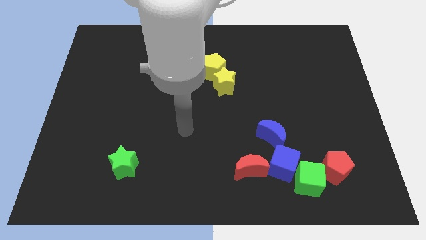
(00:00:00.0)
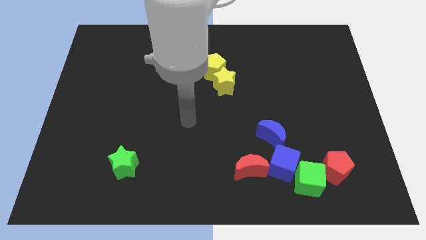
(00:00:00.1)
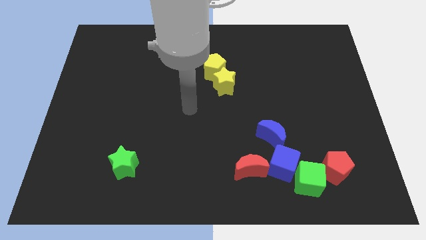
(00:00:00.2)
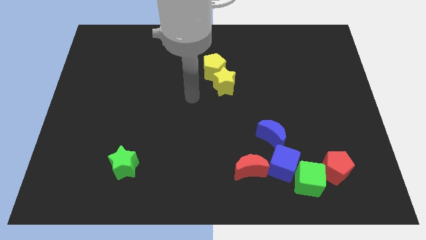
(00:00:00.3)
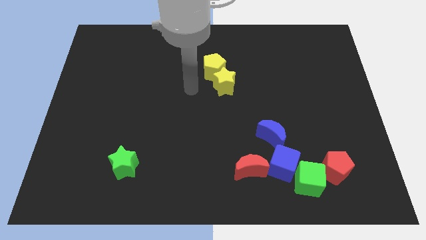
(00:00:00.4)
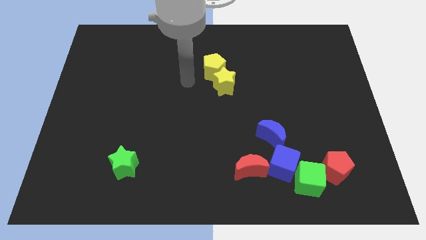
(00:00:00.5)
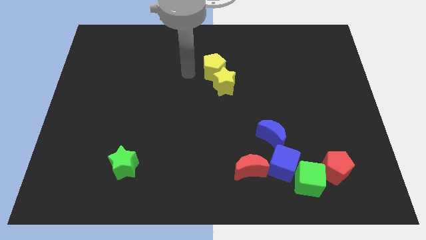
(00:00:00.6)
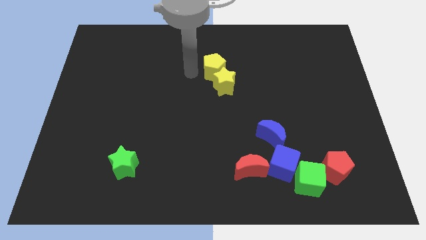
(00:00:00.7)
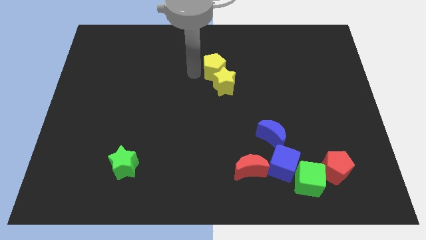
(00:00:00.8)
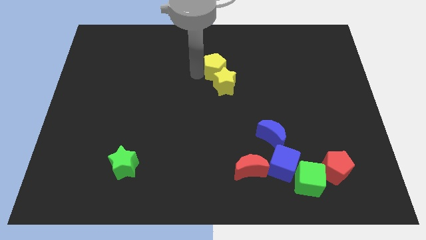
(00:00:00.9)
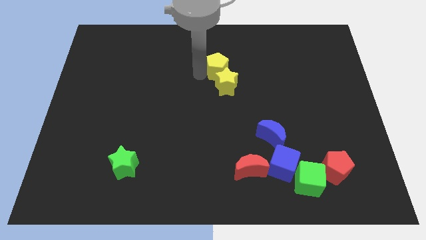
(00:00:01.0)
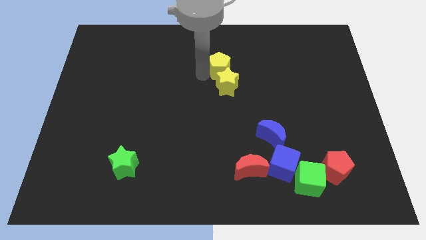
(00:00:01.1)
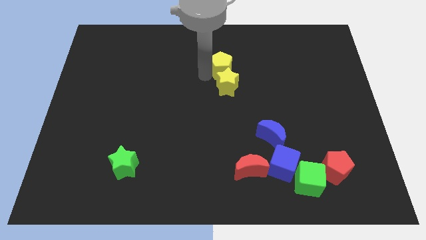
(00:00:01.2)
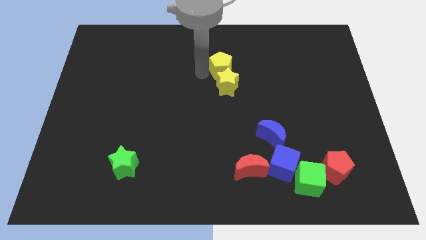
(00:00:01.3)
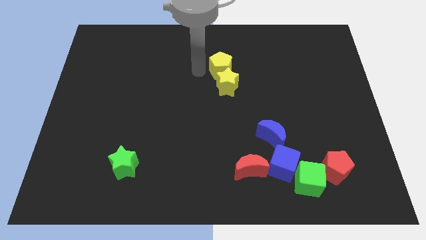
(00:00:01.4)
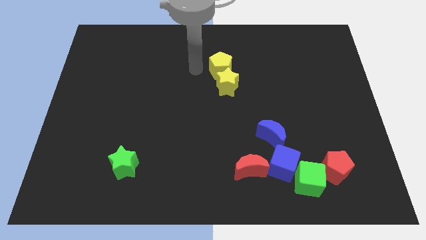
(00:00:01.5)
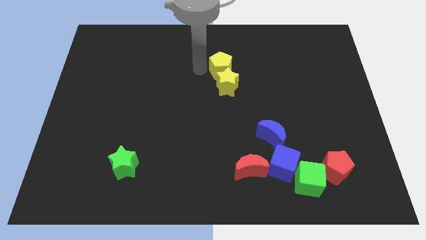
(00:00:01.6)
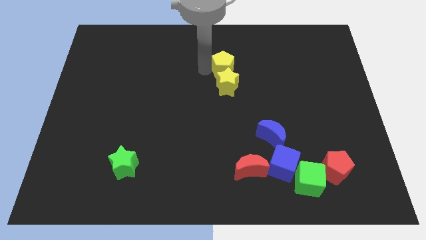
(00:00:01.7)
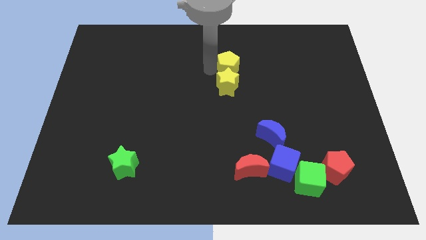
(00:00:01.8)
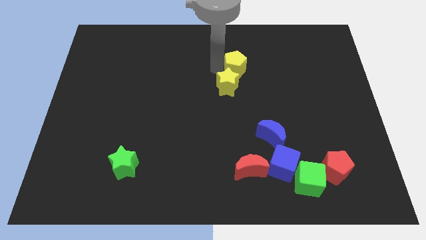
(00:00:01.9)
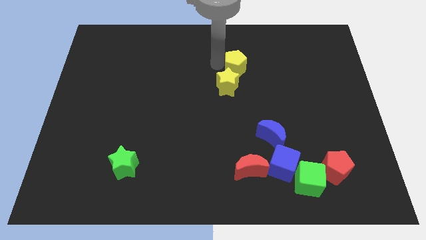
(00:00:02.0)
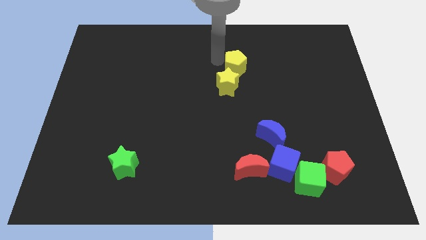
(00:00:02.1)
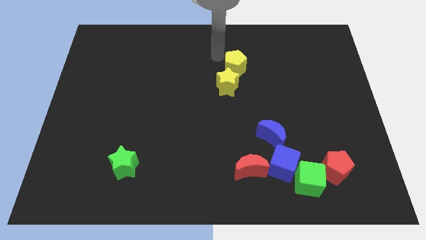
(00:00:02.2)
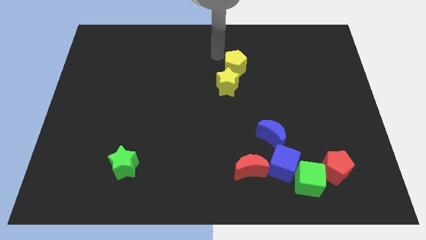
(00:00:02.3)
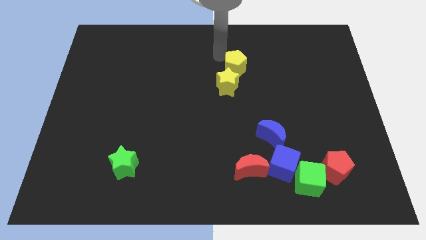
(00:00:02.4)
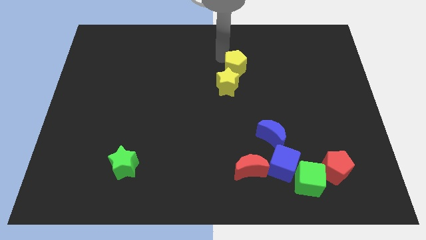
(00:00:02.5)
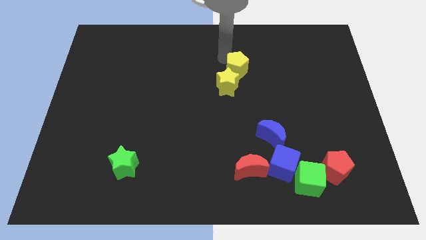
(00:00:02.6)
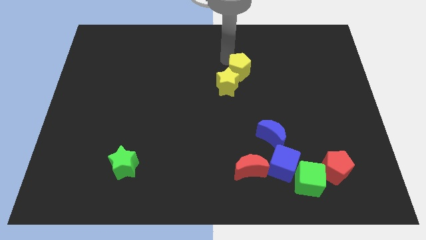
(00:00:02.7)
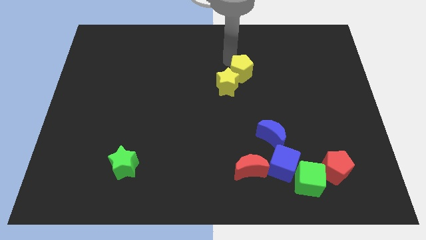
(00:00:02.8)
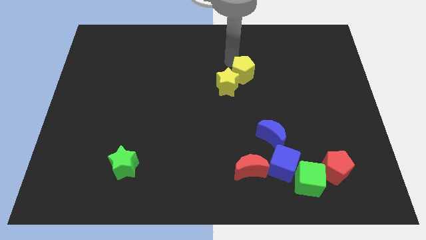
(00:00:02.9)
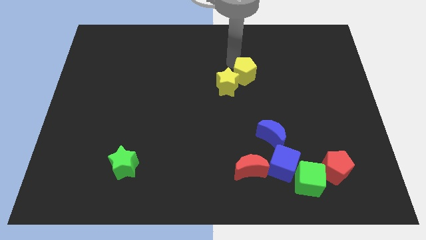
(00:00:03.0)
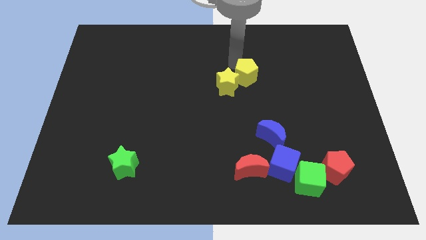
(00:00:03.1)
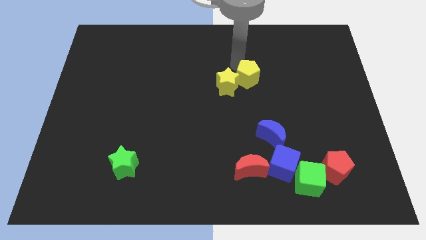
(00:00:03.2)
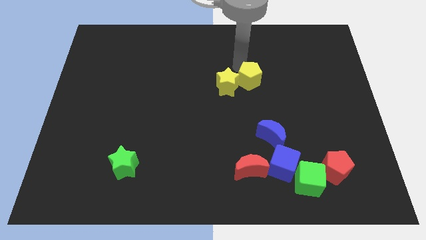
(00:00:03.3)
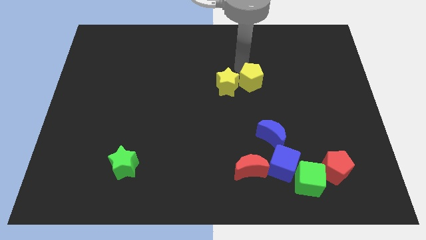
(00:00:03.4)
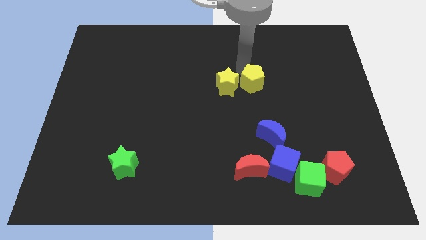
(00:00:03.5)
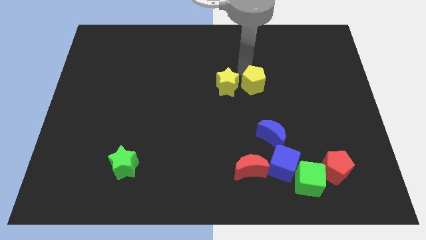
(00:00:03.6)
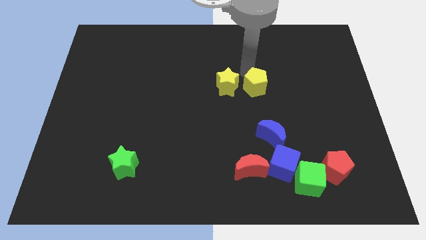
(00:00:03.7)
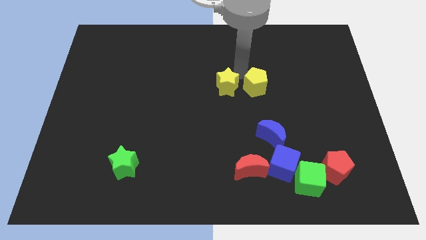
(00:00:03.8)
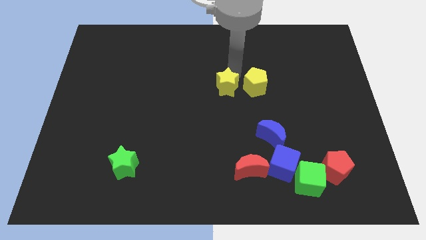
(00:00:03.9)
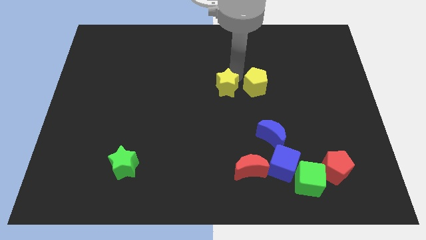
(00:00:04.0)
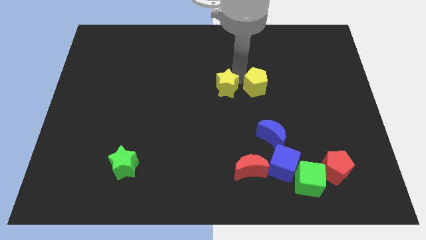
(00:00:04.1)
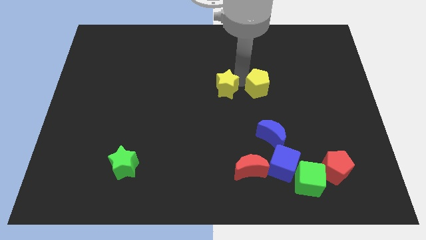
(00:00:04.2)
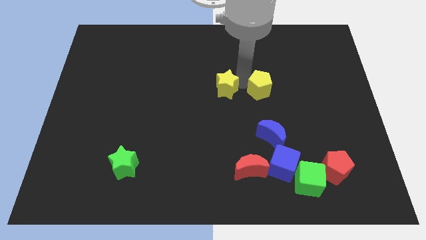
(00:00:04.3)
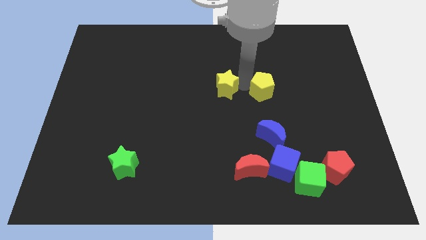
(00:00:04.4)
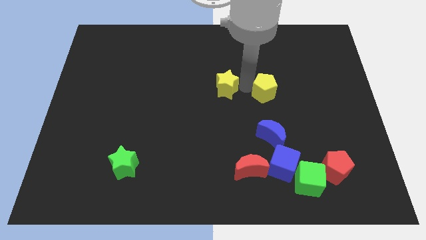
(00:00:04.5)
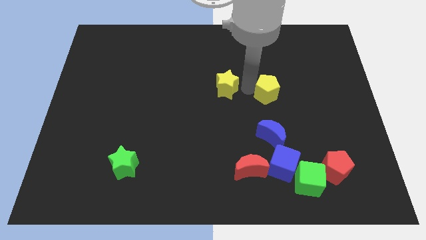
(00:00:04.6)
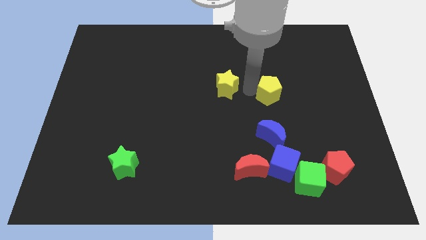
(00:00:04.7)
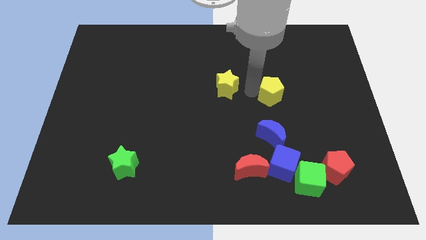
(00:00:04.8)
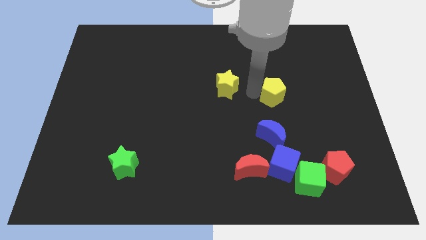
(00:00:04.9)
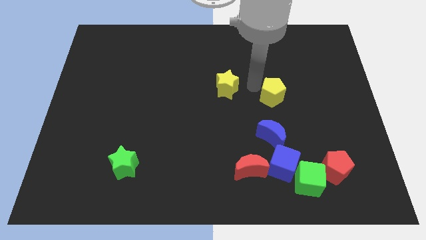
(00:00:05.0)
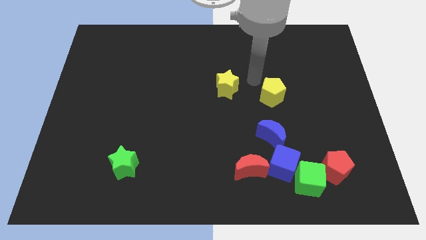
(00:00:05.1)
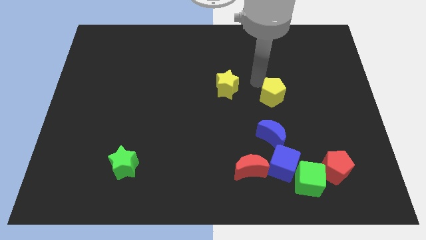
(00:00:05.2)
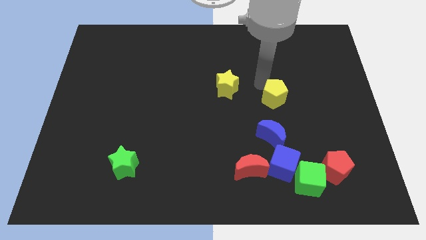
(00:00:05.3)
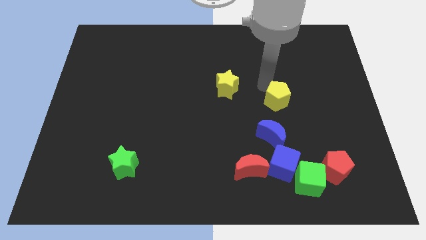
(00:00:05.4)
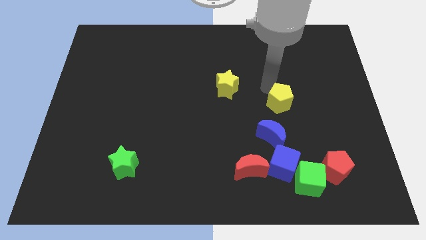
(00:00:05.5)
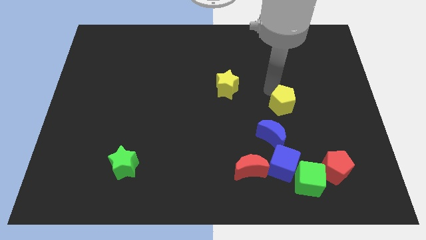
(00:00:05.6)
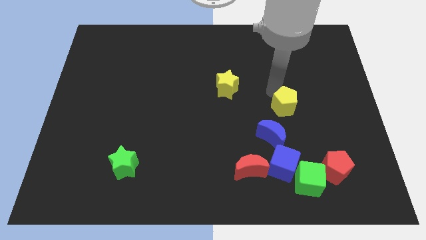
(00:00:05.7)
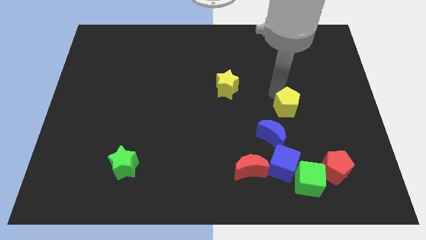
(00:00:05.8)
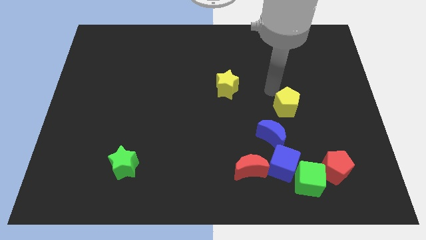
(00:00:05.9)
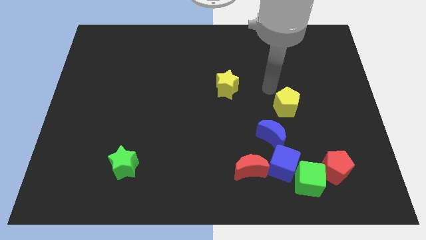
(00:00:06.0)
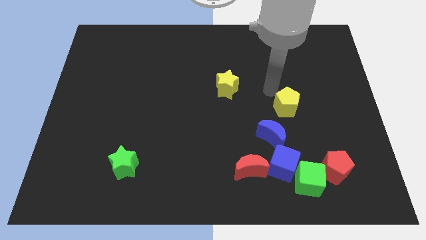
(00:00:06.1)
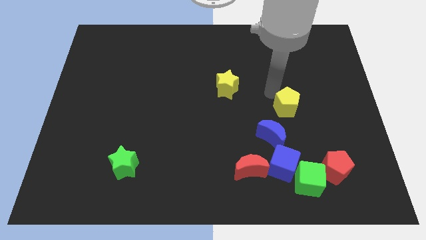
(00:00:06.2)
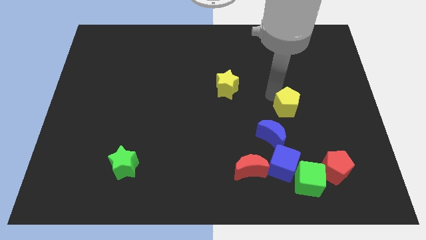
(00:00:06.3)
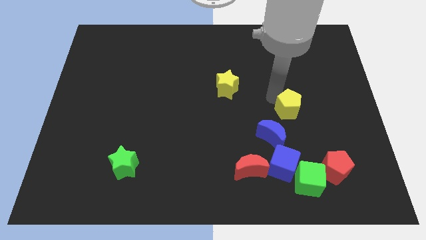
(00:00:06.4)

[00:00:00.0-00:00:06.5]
slide the yellow pentagon diagonally down and to the right

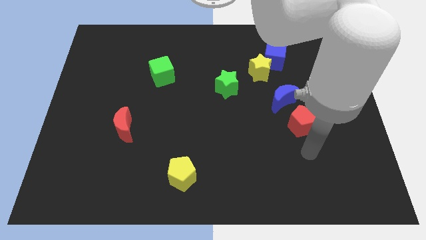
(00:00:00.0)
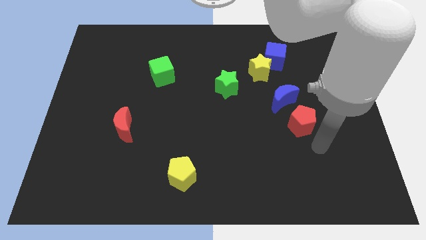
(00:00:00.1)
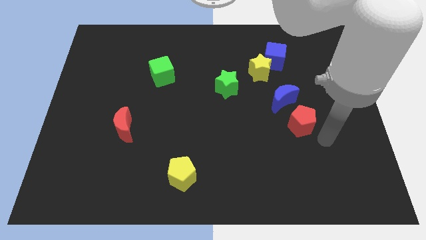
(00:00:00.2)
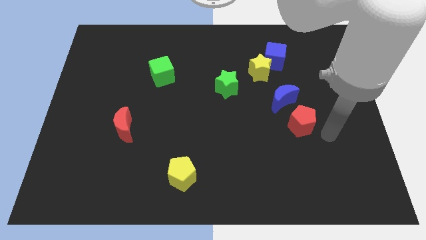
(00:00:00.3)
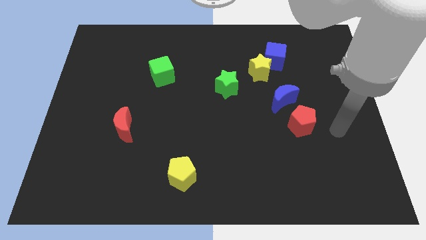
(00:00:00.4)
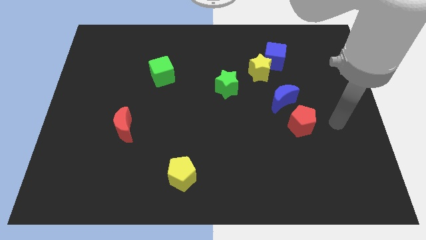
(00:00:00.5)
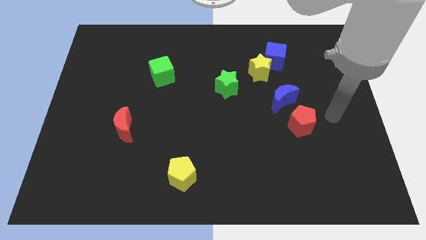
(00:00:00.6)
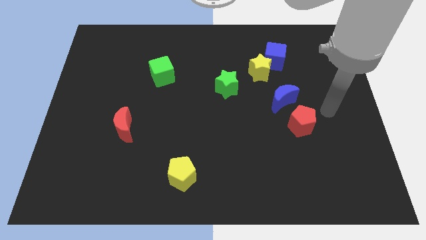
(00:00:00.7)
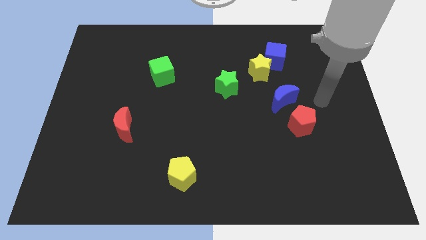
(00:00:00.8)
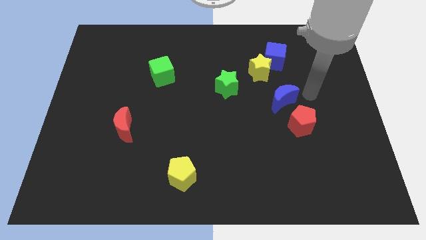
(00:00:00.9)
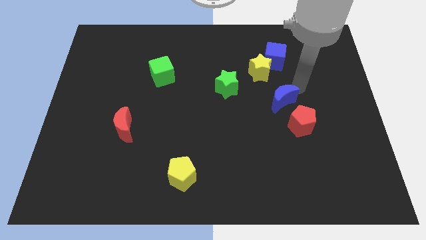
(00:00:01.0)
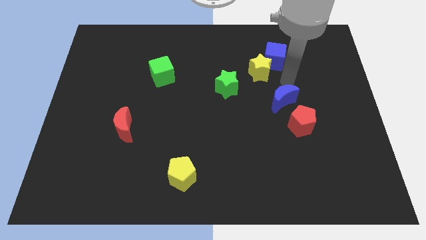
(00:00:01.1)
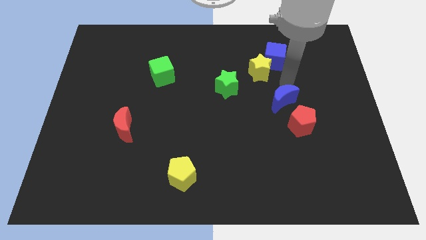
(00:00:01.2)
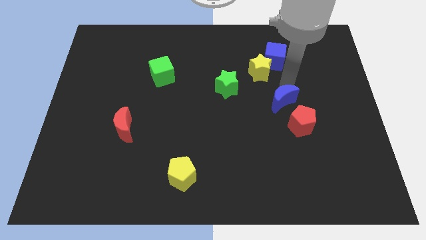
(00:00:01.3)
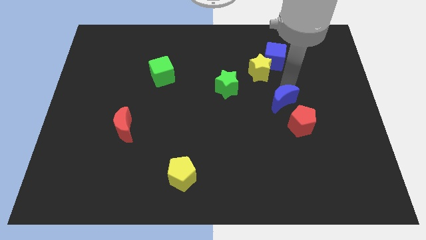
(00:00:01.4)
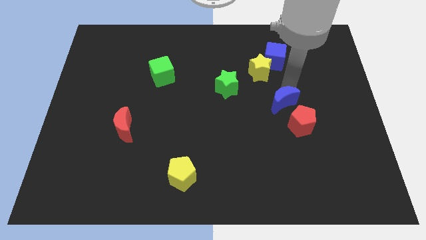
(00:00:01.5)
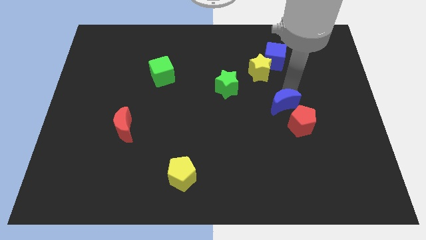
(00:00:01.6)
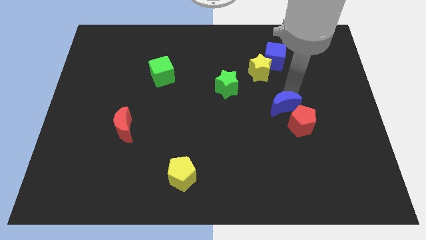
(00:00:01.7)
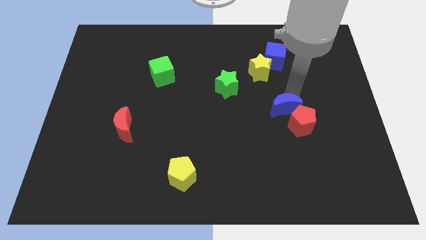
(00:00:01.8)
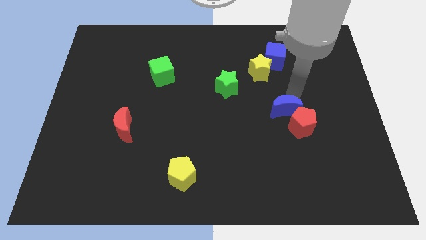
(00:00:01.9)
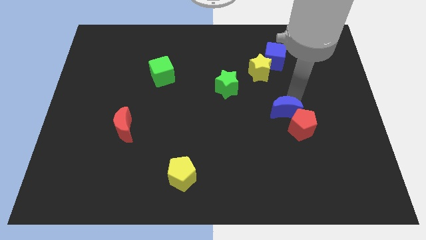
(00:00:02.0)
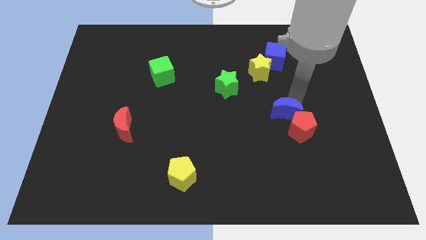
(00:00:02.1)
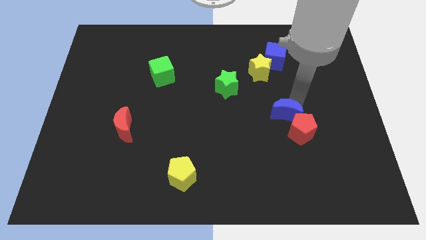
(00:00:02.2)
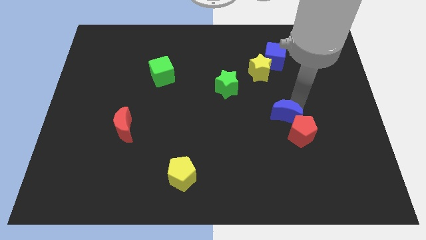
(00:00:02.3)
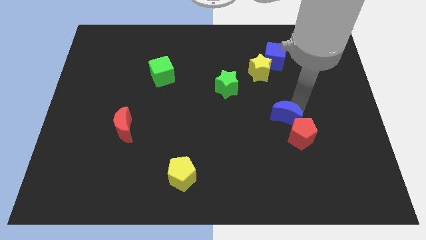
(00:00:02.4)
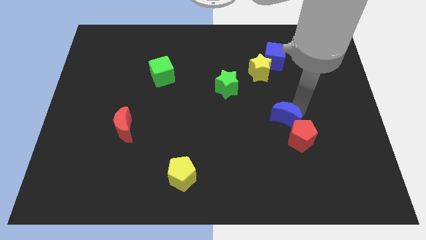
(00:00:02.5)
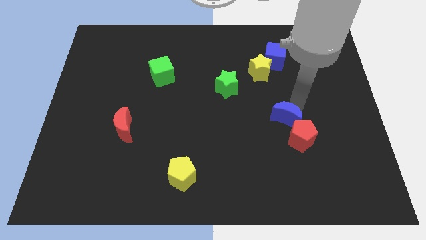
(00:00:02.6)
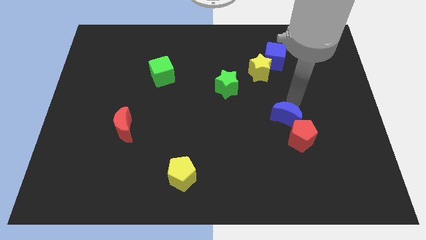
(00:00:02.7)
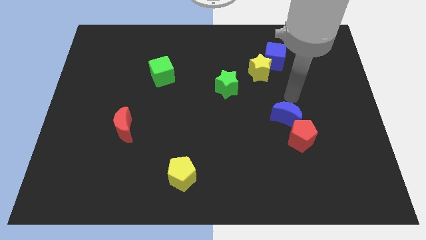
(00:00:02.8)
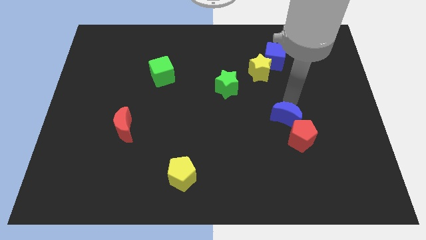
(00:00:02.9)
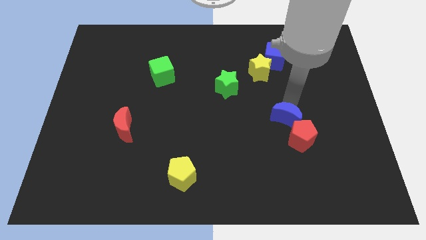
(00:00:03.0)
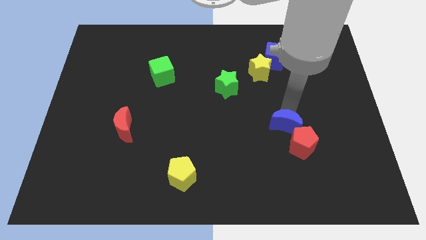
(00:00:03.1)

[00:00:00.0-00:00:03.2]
push the blue moon somewhat downwards
